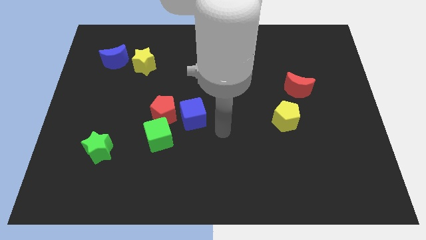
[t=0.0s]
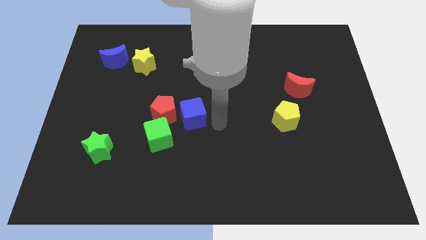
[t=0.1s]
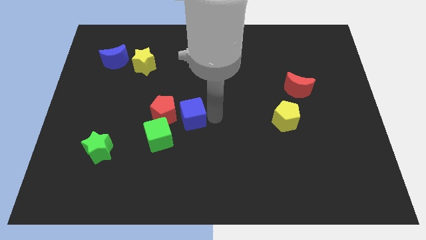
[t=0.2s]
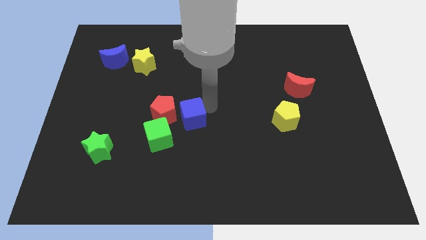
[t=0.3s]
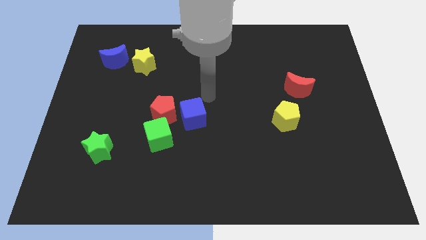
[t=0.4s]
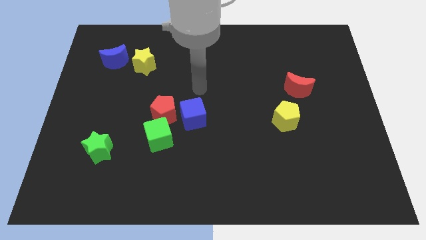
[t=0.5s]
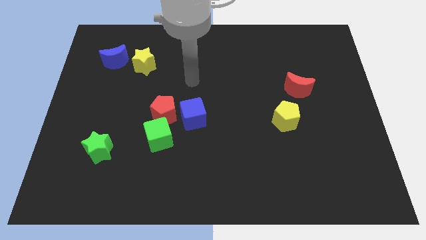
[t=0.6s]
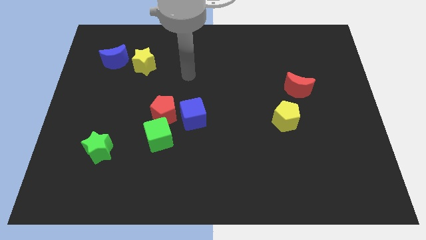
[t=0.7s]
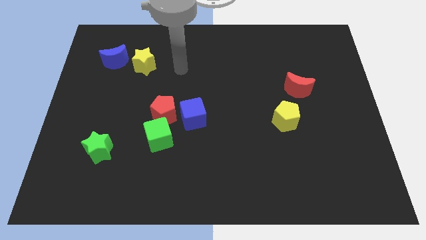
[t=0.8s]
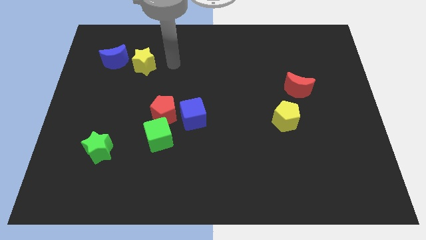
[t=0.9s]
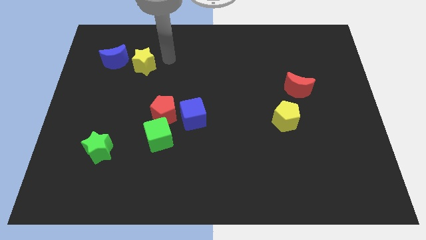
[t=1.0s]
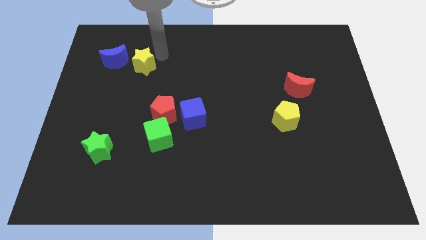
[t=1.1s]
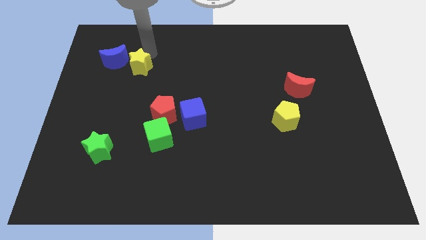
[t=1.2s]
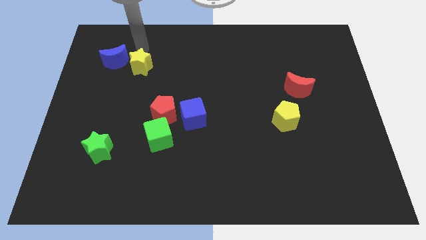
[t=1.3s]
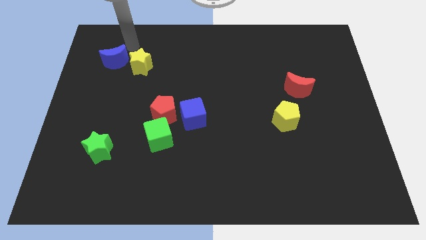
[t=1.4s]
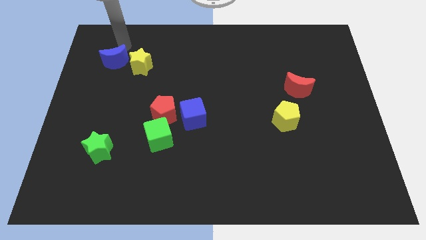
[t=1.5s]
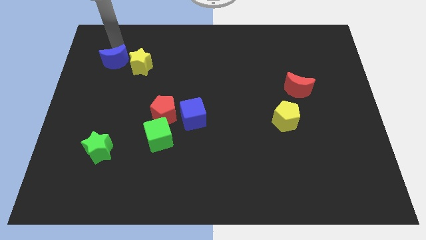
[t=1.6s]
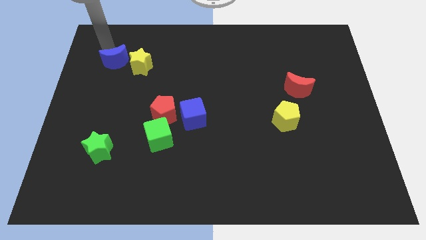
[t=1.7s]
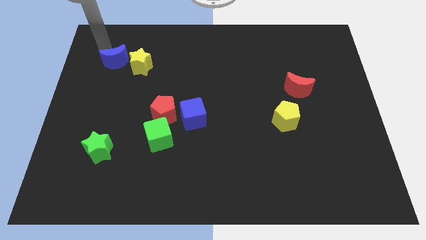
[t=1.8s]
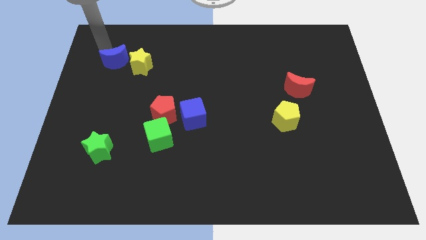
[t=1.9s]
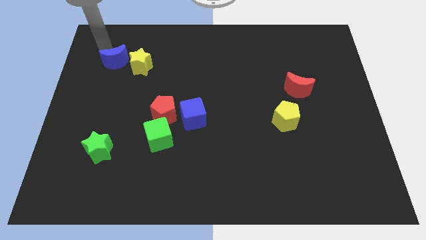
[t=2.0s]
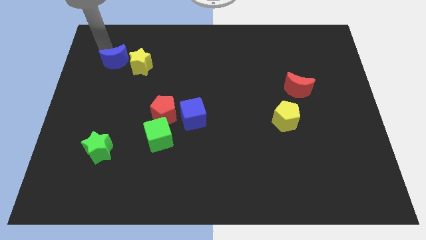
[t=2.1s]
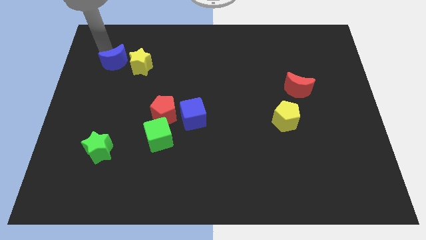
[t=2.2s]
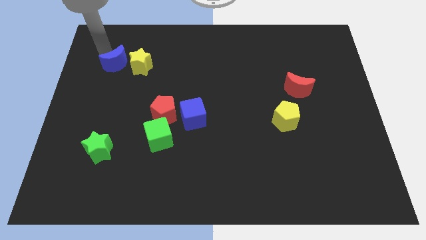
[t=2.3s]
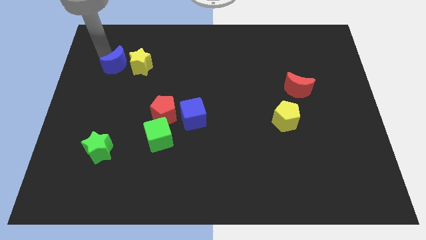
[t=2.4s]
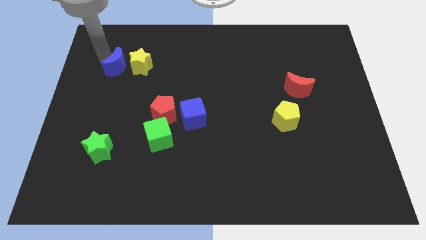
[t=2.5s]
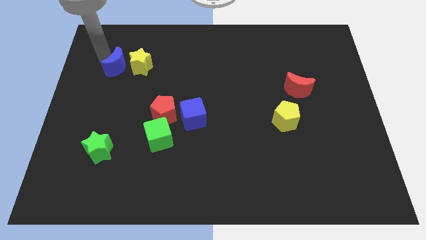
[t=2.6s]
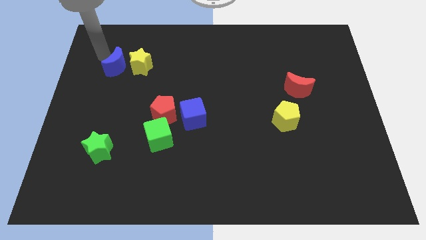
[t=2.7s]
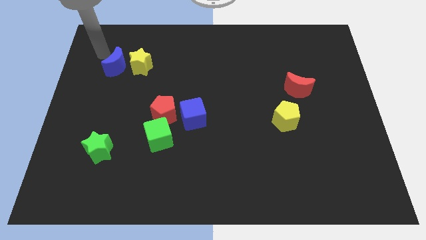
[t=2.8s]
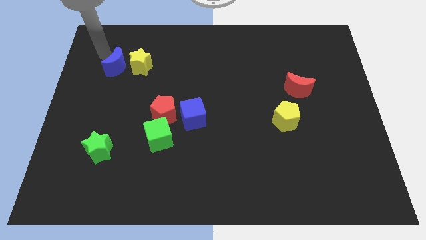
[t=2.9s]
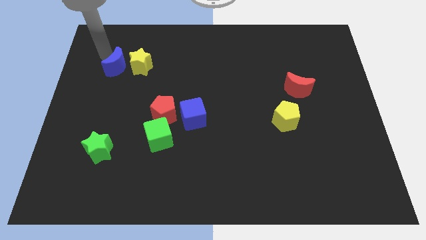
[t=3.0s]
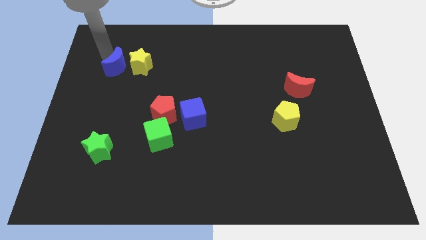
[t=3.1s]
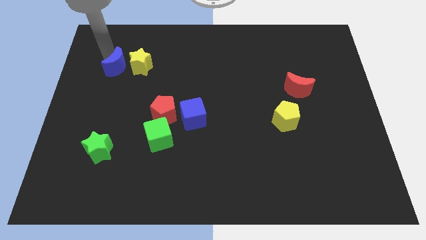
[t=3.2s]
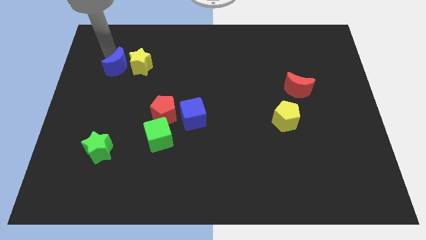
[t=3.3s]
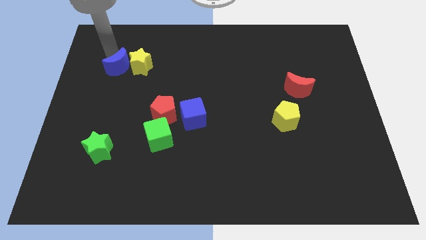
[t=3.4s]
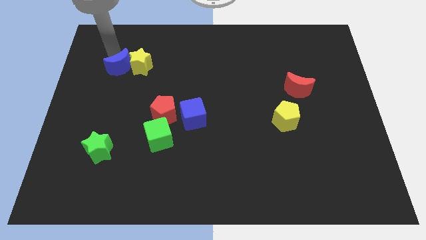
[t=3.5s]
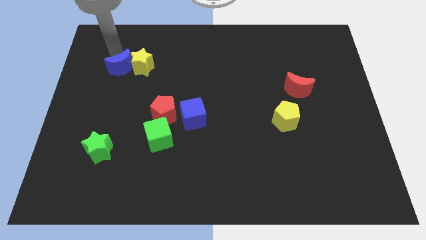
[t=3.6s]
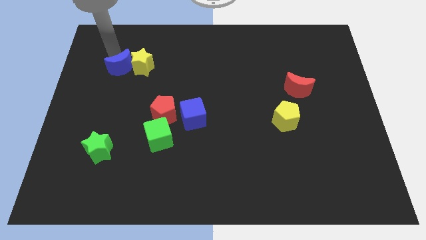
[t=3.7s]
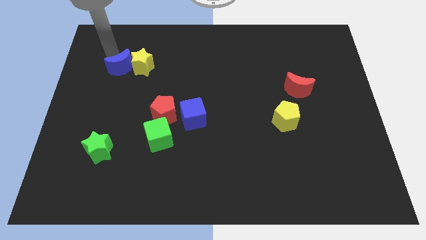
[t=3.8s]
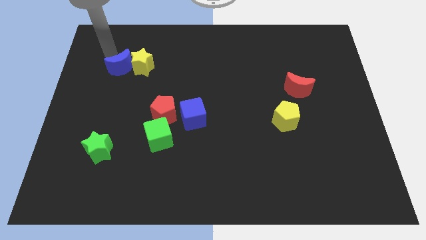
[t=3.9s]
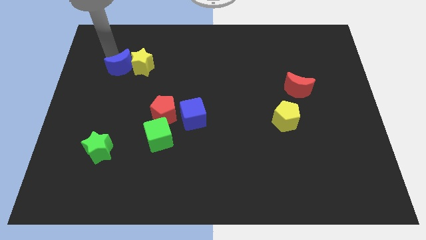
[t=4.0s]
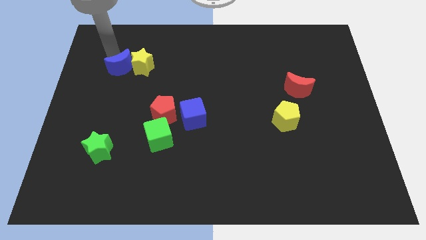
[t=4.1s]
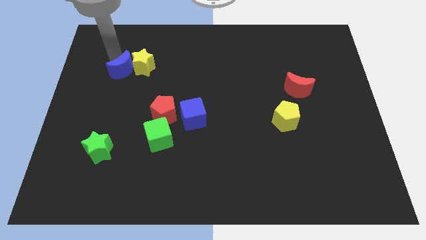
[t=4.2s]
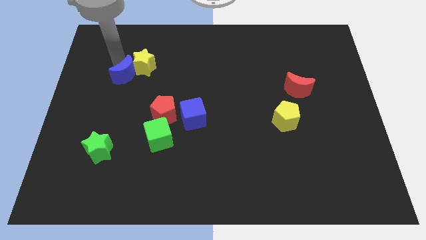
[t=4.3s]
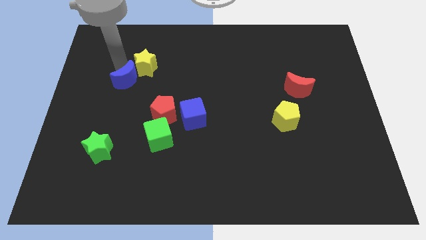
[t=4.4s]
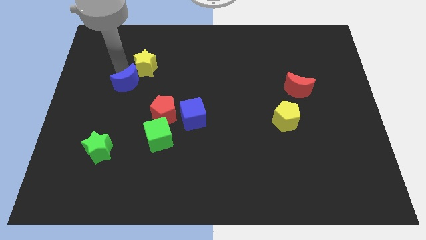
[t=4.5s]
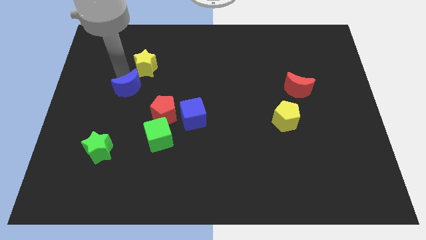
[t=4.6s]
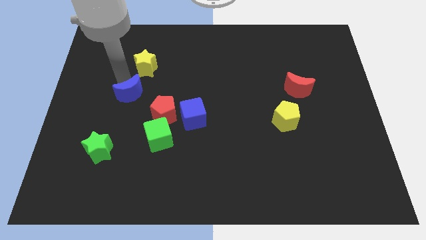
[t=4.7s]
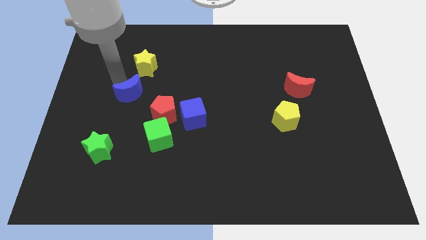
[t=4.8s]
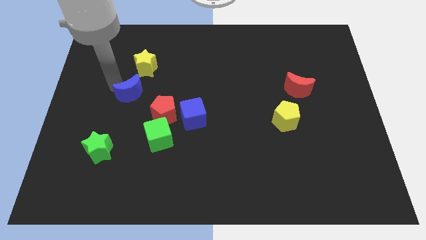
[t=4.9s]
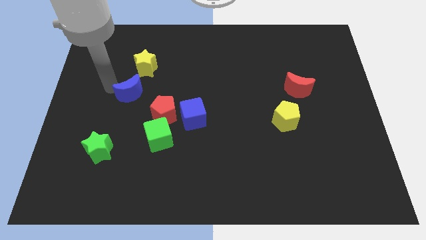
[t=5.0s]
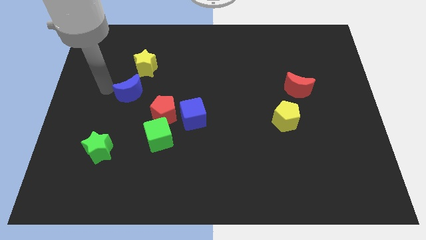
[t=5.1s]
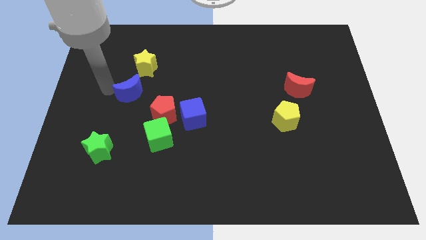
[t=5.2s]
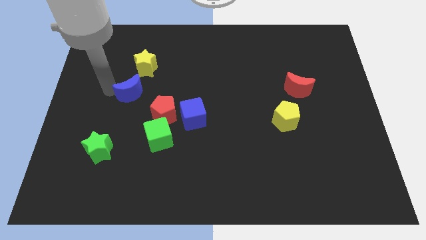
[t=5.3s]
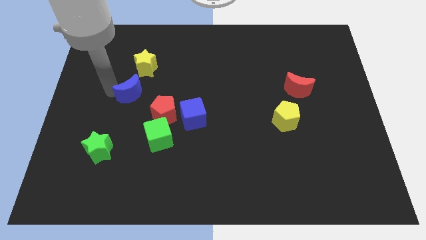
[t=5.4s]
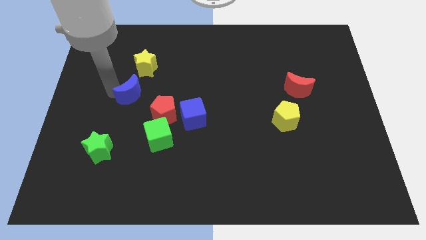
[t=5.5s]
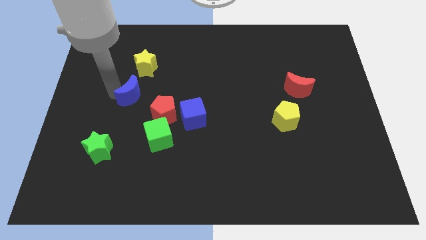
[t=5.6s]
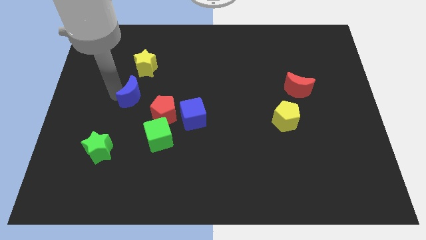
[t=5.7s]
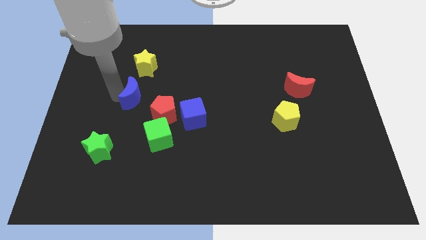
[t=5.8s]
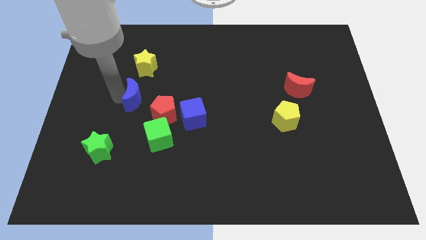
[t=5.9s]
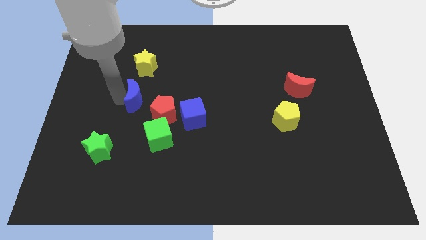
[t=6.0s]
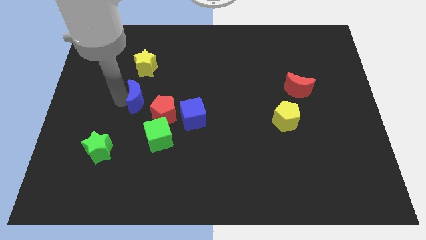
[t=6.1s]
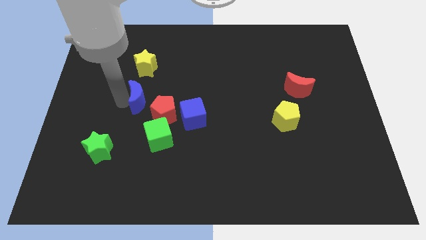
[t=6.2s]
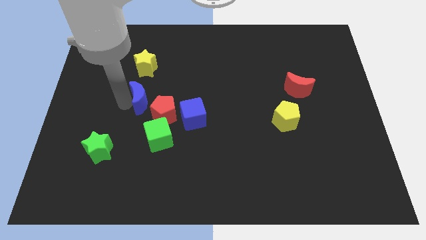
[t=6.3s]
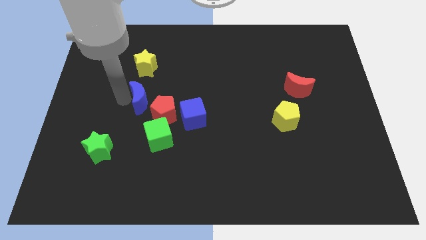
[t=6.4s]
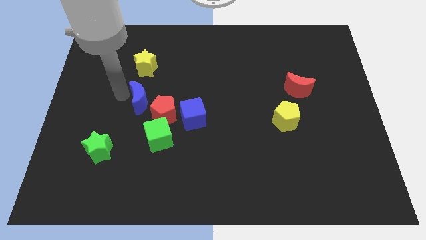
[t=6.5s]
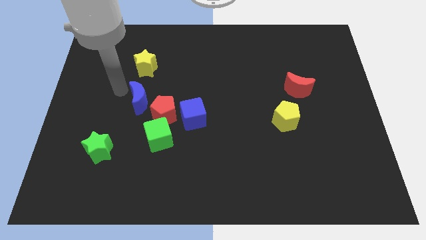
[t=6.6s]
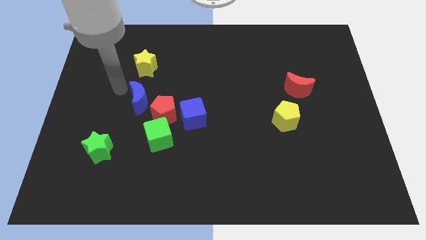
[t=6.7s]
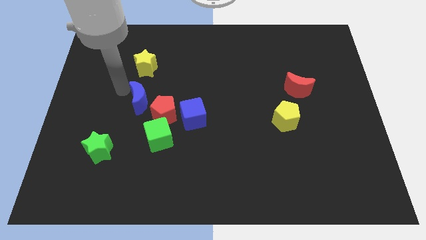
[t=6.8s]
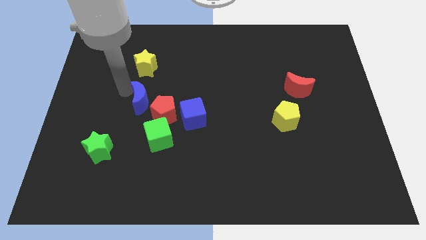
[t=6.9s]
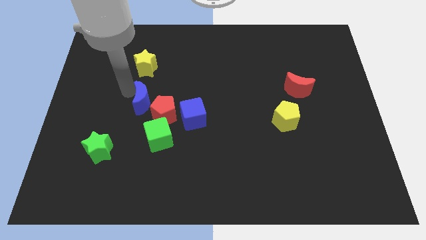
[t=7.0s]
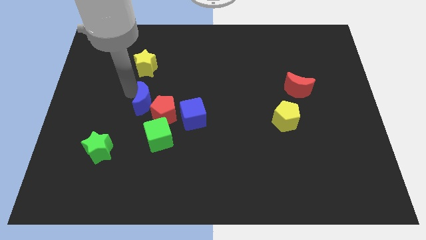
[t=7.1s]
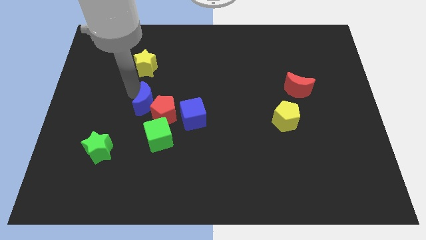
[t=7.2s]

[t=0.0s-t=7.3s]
put the blue moon towards the red pentagon

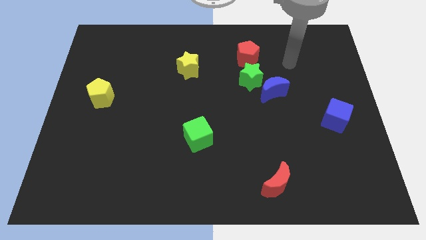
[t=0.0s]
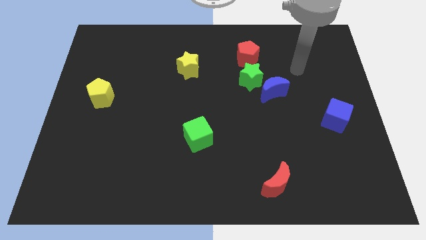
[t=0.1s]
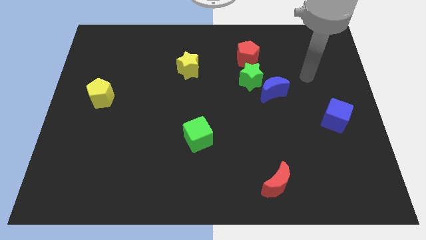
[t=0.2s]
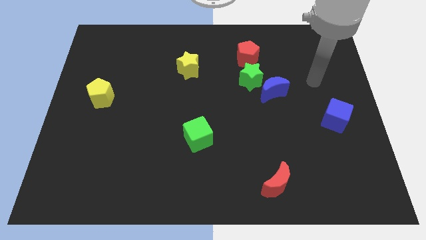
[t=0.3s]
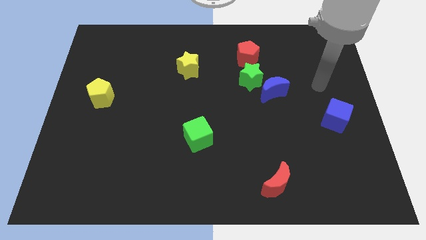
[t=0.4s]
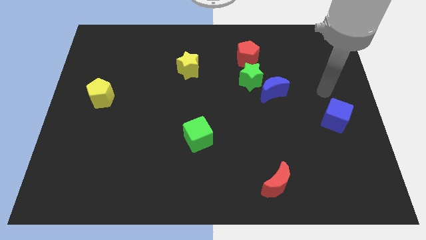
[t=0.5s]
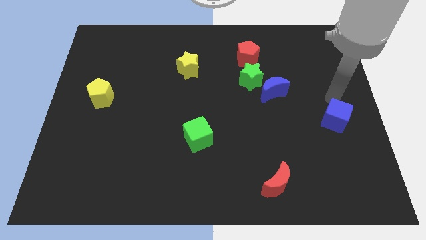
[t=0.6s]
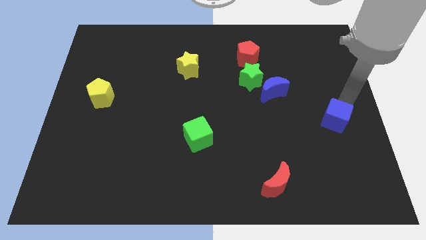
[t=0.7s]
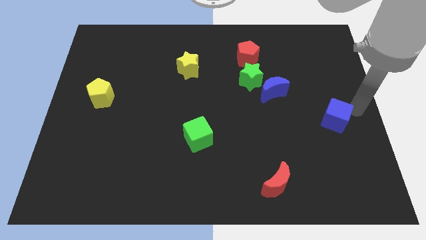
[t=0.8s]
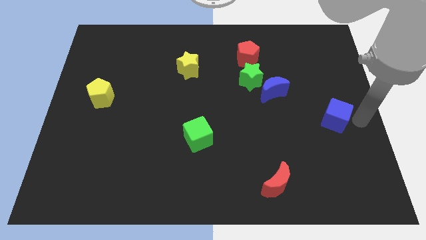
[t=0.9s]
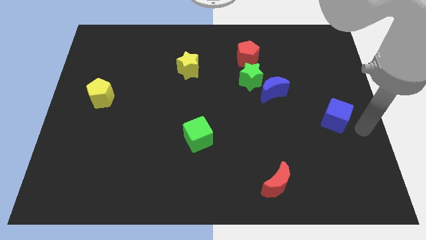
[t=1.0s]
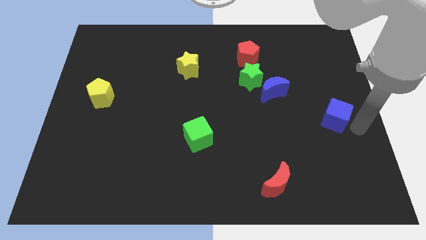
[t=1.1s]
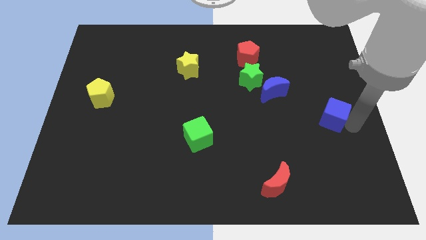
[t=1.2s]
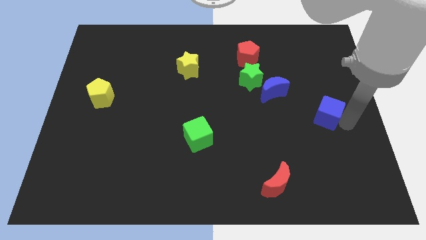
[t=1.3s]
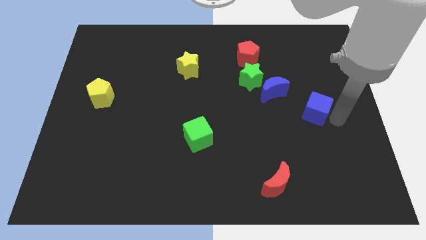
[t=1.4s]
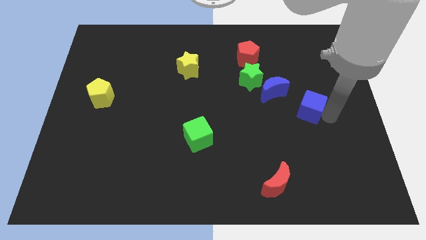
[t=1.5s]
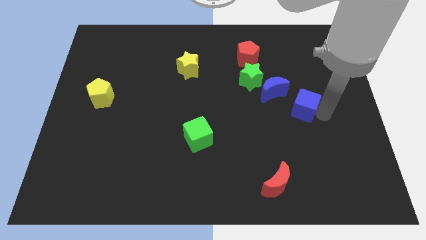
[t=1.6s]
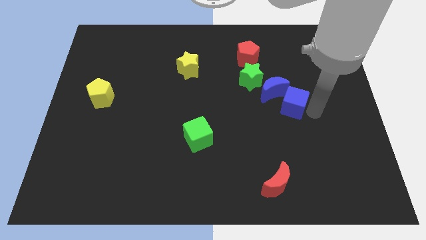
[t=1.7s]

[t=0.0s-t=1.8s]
put the blue cube towards the blue moon
